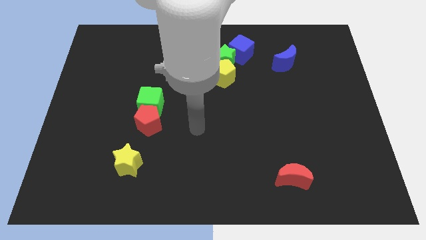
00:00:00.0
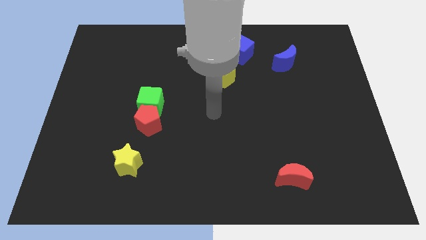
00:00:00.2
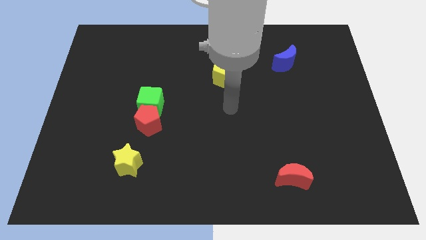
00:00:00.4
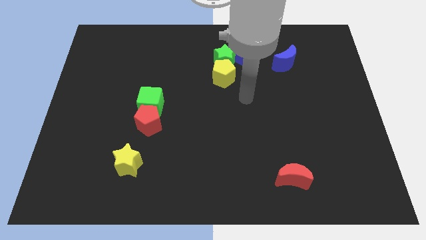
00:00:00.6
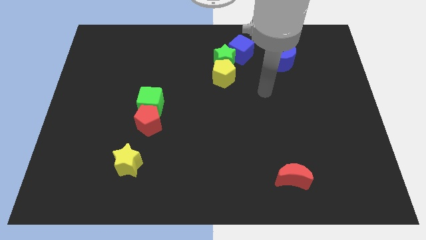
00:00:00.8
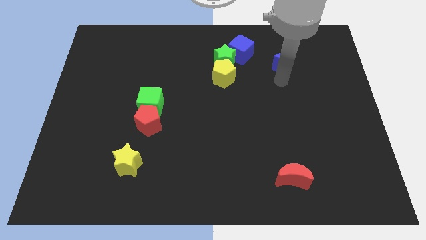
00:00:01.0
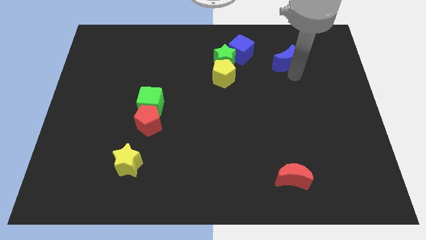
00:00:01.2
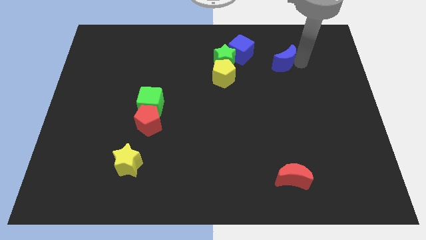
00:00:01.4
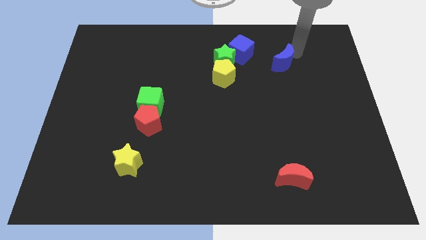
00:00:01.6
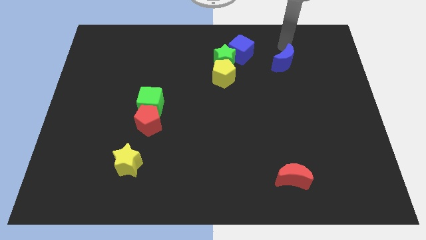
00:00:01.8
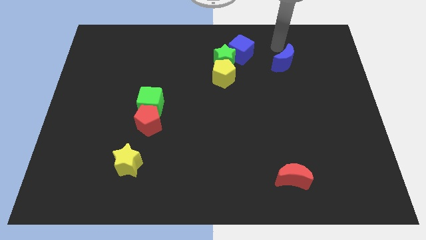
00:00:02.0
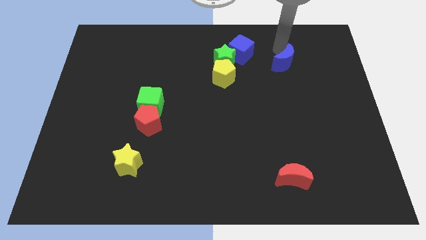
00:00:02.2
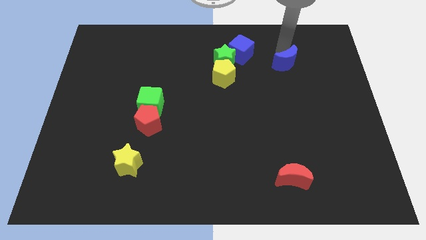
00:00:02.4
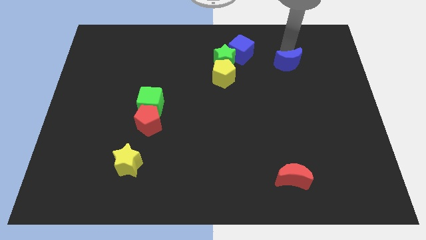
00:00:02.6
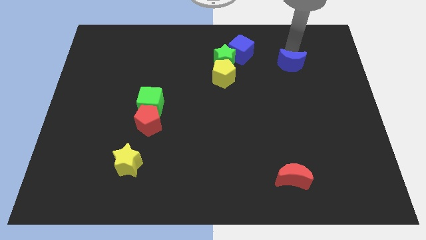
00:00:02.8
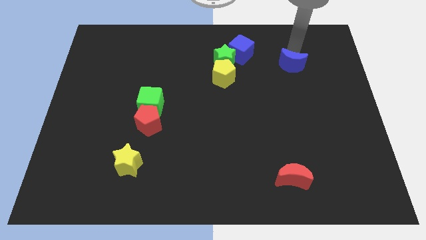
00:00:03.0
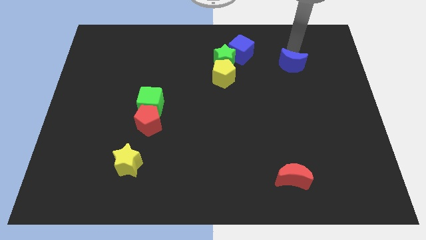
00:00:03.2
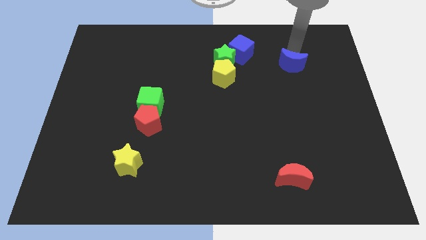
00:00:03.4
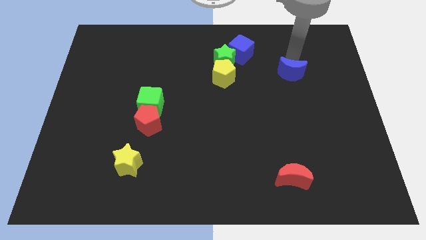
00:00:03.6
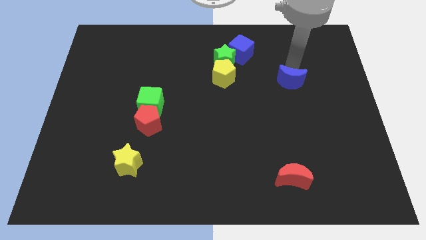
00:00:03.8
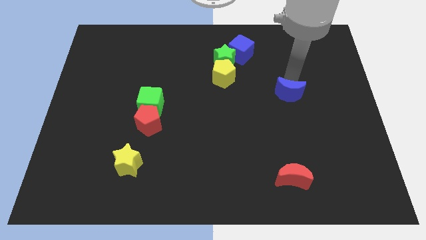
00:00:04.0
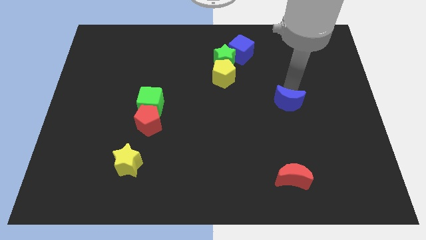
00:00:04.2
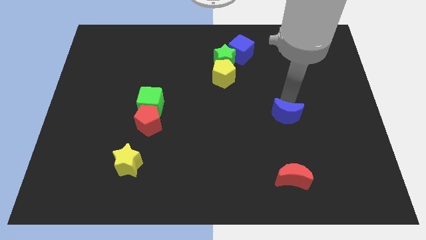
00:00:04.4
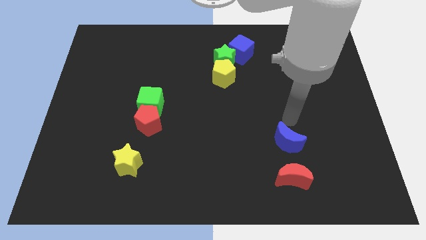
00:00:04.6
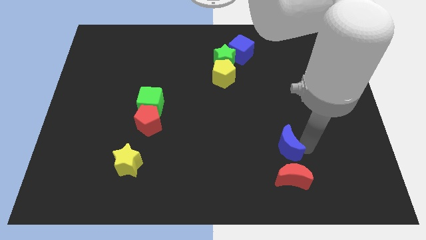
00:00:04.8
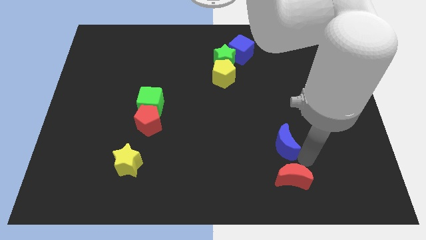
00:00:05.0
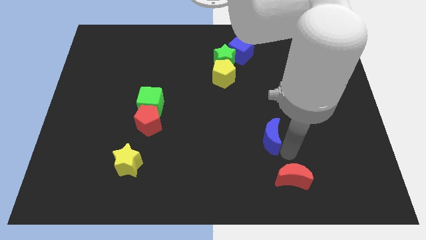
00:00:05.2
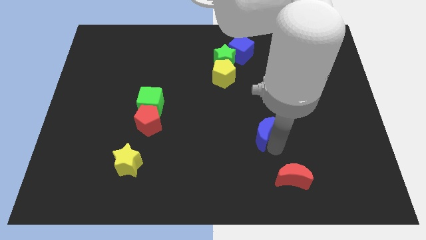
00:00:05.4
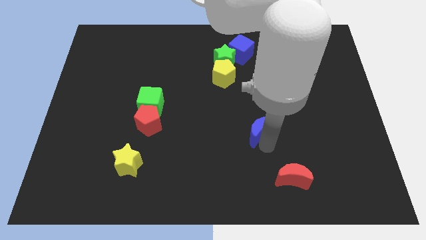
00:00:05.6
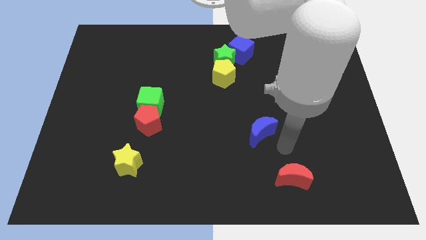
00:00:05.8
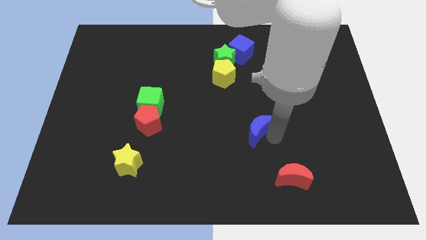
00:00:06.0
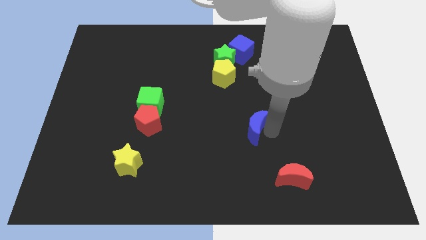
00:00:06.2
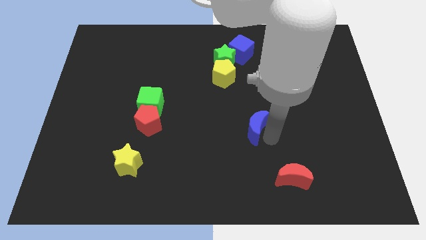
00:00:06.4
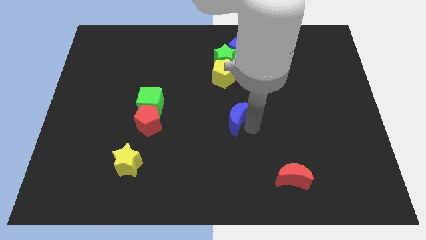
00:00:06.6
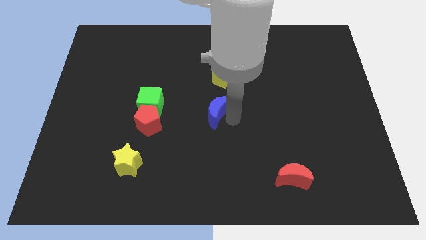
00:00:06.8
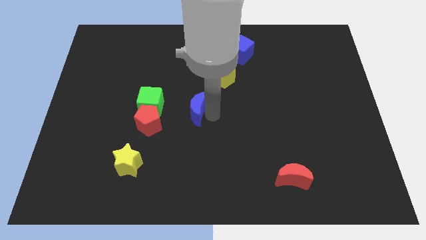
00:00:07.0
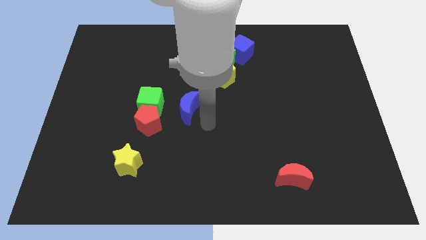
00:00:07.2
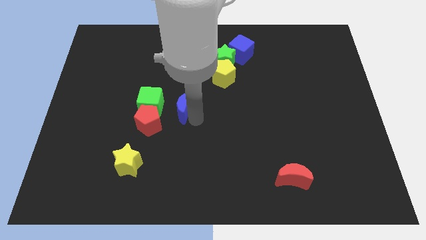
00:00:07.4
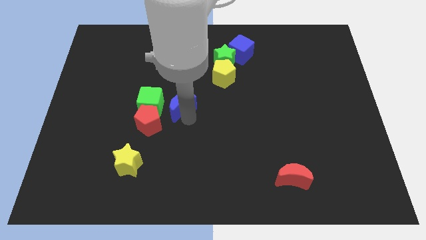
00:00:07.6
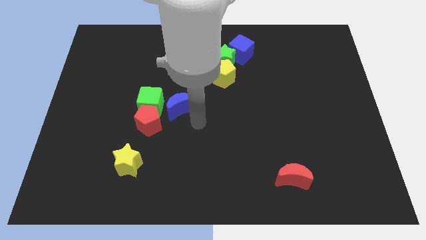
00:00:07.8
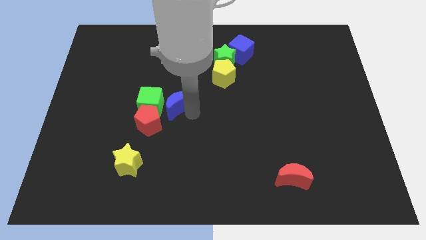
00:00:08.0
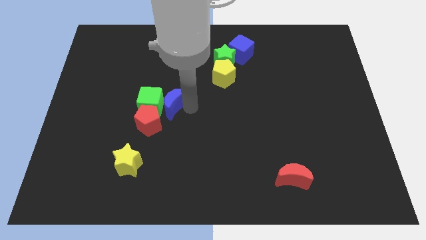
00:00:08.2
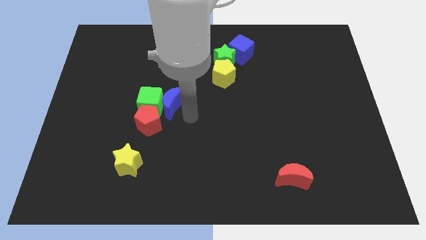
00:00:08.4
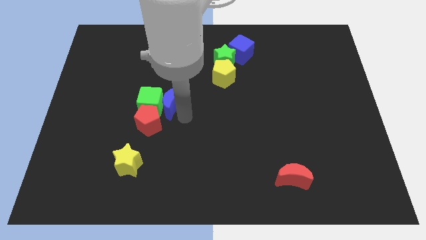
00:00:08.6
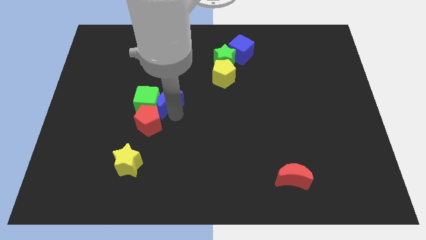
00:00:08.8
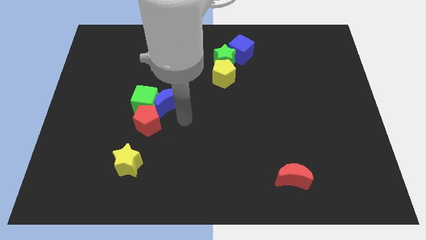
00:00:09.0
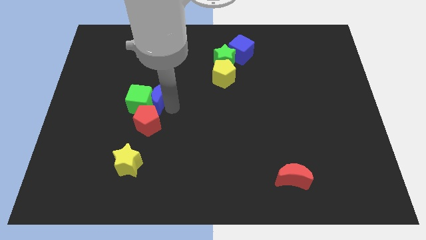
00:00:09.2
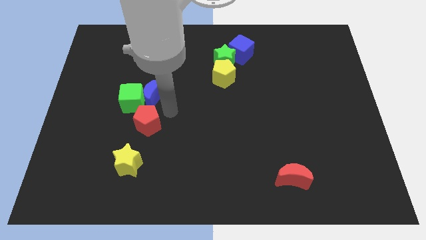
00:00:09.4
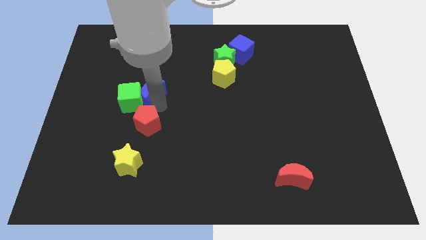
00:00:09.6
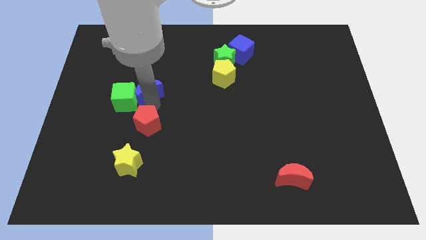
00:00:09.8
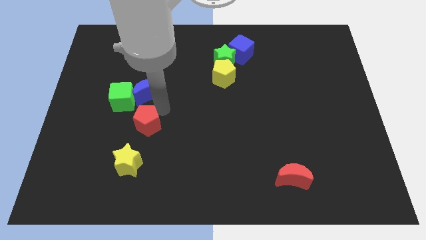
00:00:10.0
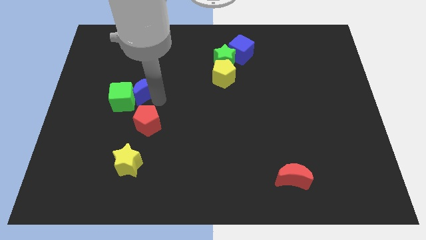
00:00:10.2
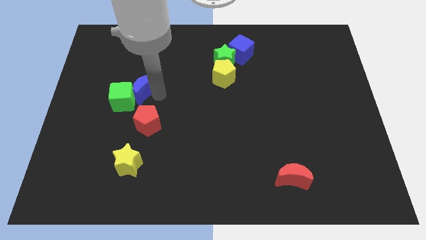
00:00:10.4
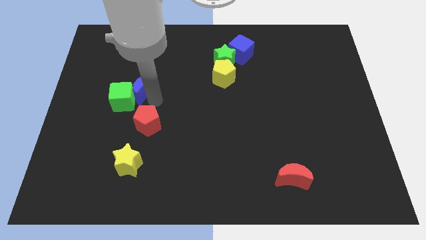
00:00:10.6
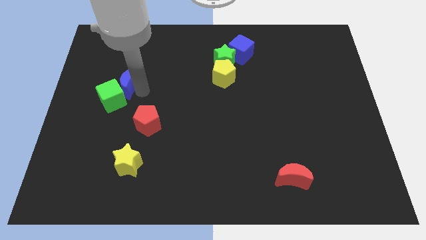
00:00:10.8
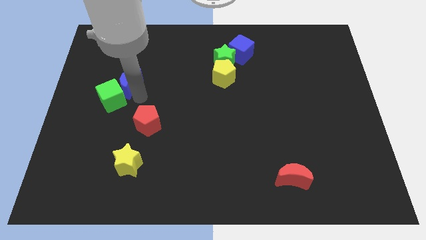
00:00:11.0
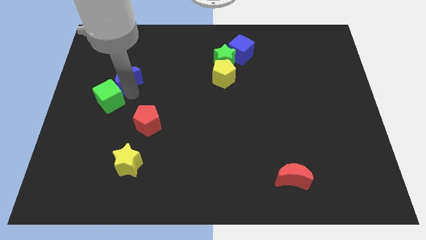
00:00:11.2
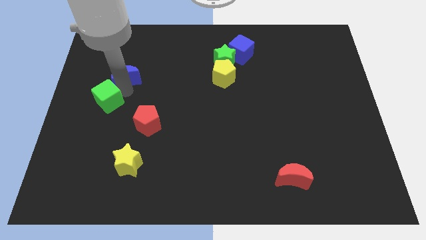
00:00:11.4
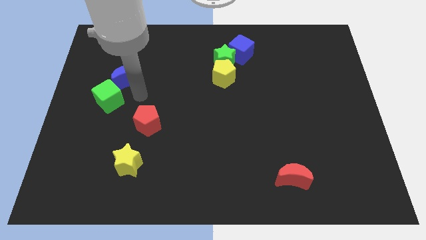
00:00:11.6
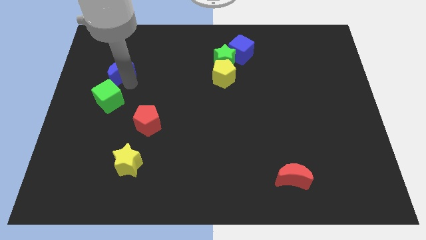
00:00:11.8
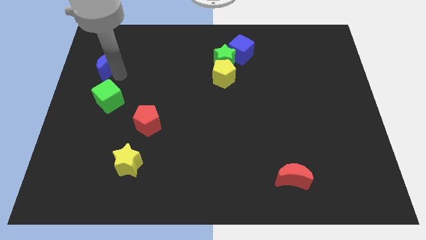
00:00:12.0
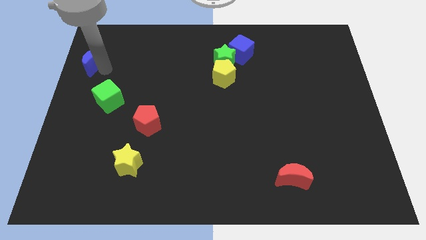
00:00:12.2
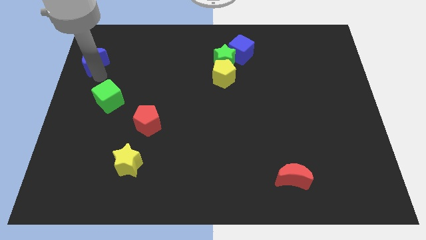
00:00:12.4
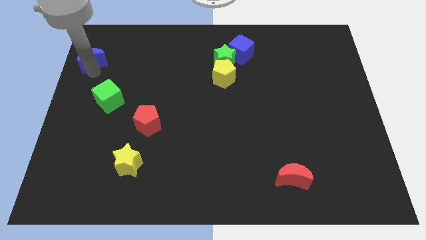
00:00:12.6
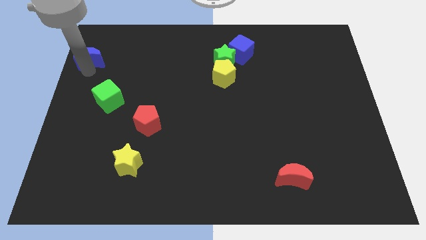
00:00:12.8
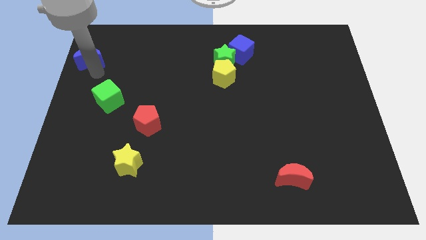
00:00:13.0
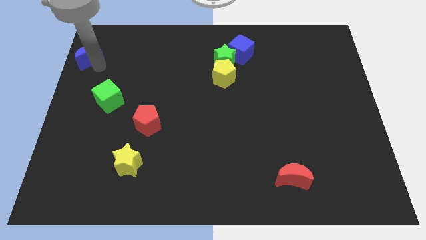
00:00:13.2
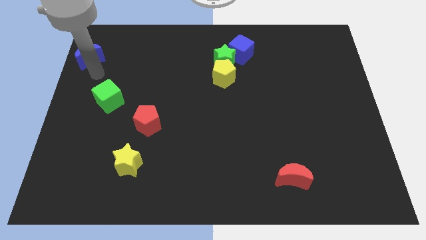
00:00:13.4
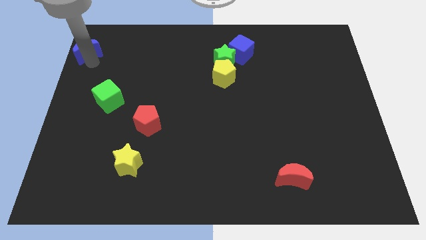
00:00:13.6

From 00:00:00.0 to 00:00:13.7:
push the blue moon to the upper left corner

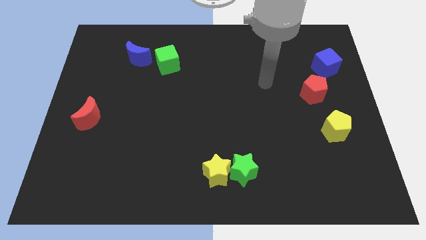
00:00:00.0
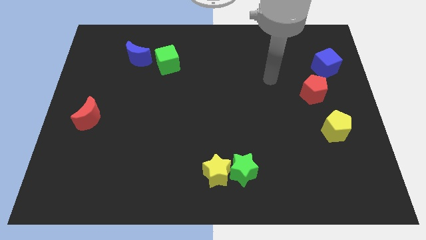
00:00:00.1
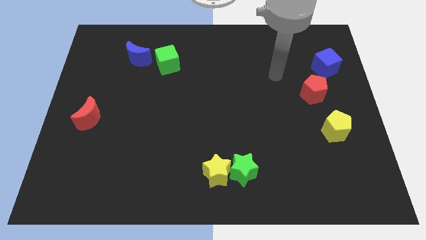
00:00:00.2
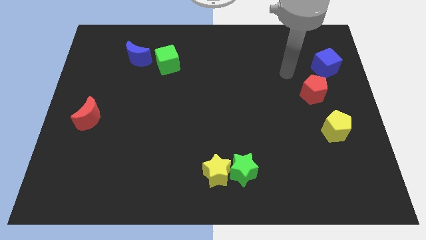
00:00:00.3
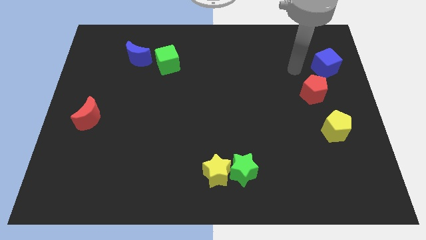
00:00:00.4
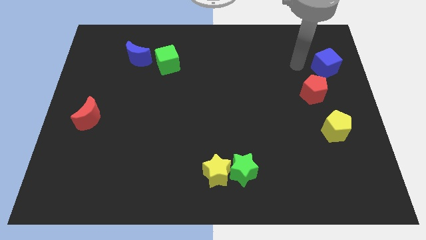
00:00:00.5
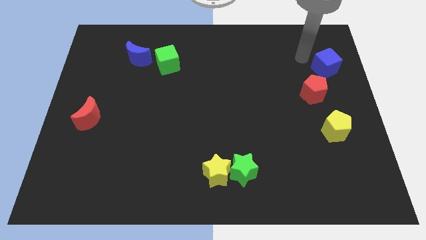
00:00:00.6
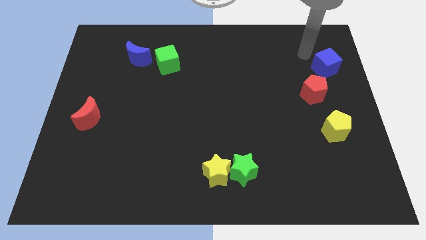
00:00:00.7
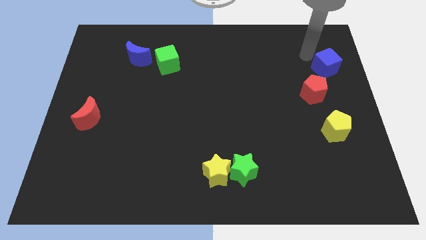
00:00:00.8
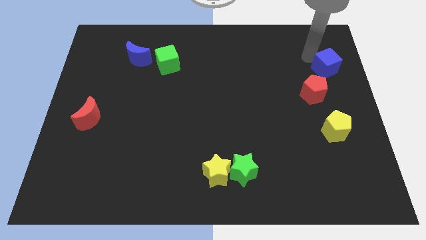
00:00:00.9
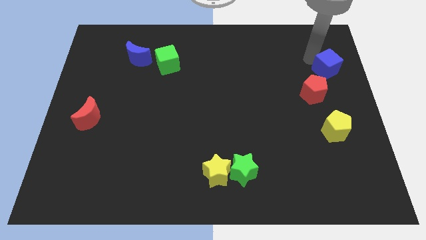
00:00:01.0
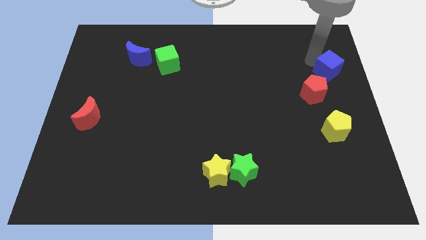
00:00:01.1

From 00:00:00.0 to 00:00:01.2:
slide the blue cube to the right side of the board
